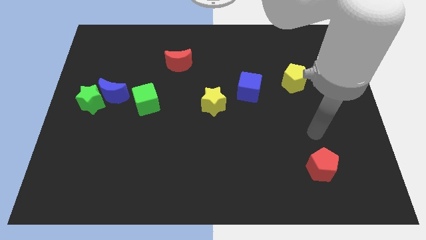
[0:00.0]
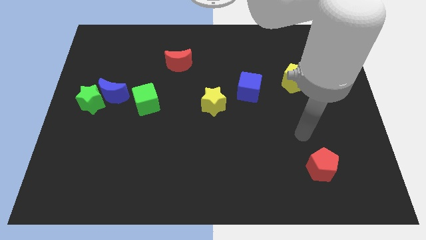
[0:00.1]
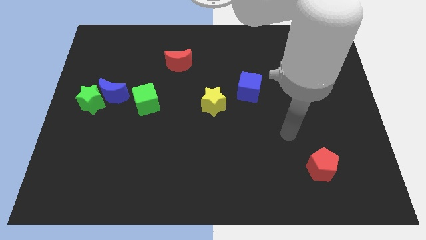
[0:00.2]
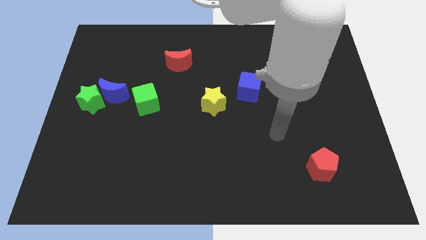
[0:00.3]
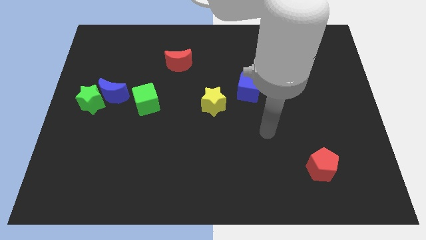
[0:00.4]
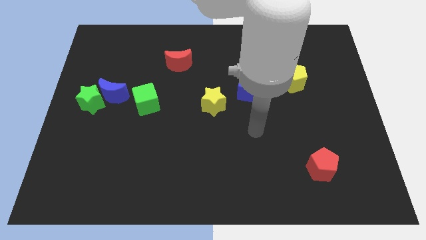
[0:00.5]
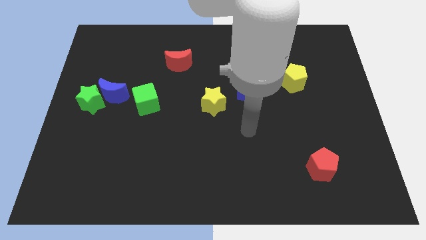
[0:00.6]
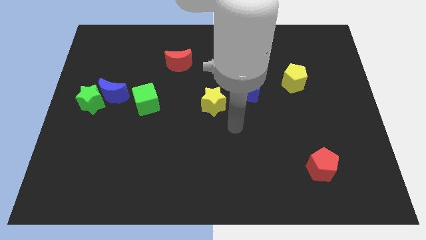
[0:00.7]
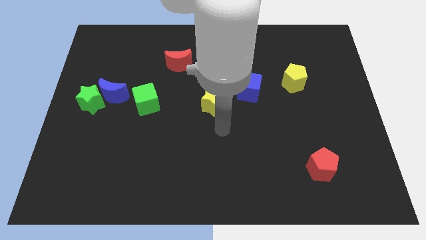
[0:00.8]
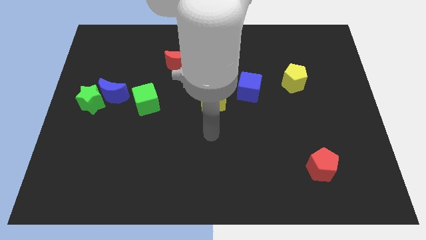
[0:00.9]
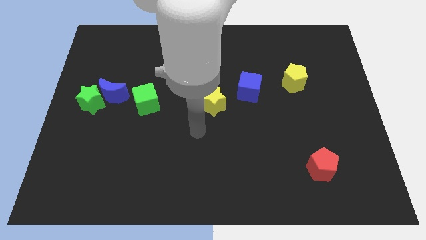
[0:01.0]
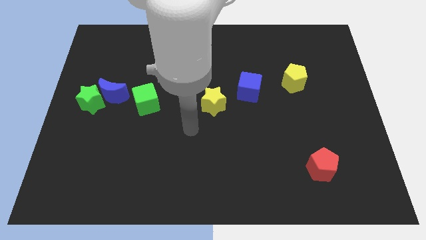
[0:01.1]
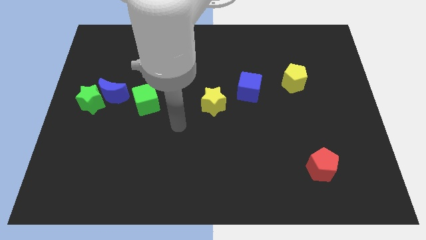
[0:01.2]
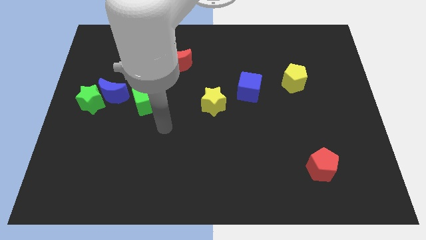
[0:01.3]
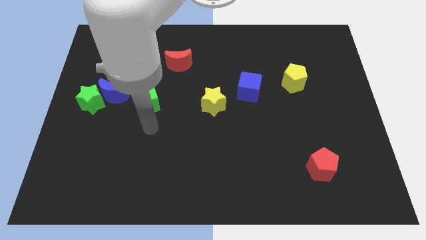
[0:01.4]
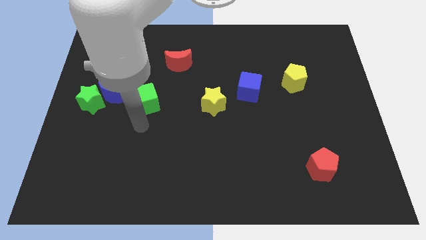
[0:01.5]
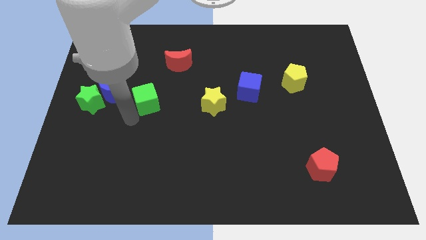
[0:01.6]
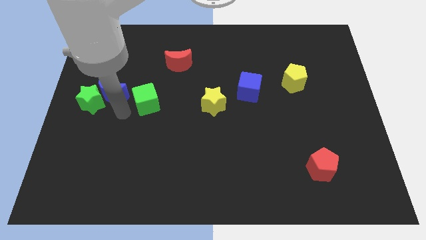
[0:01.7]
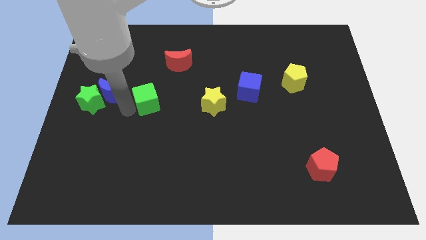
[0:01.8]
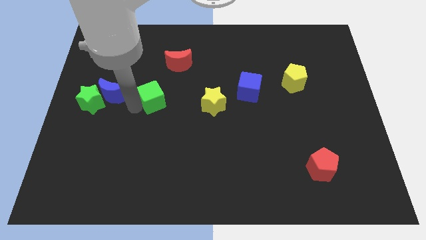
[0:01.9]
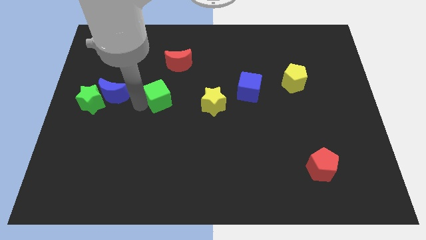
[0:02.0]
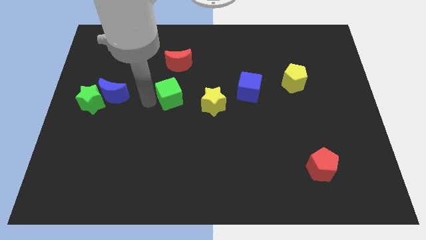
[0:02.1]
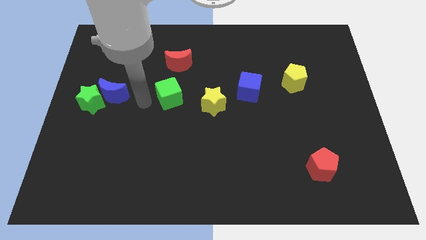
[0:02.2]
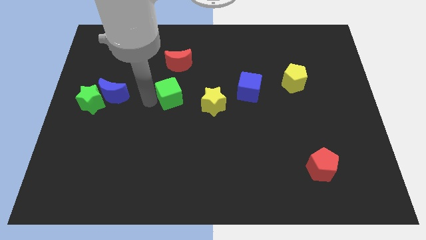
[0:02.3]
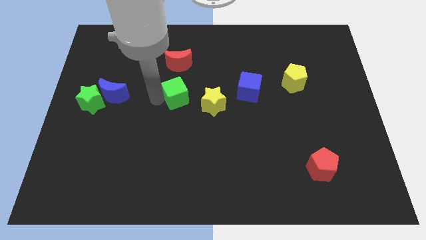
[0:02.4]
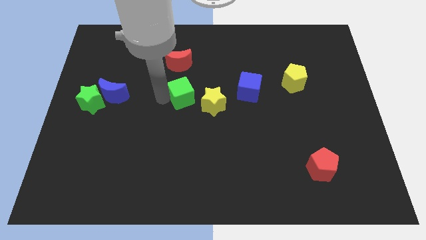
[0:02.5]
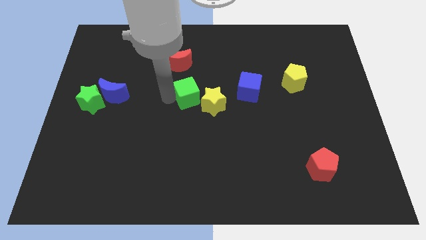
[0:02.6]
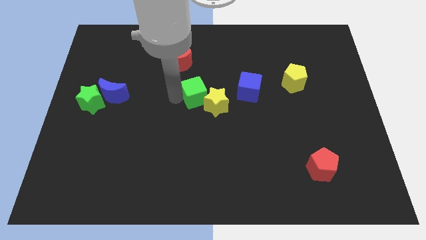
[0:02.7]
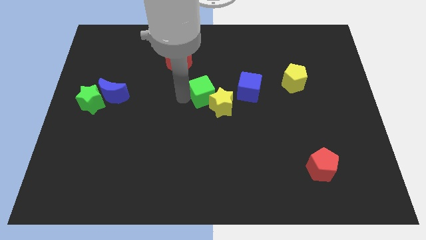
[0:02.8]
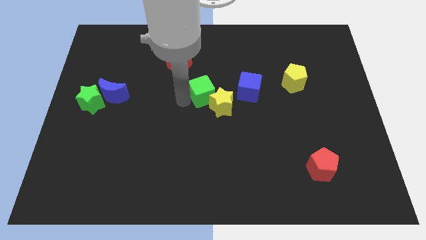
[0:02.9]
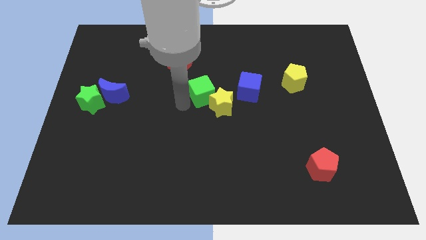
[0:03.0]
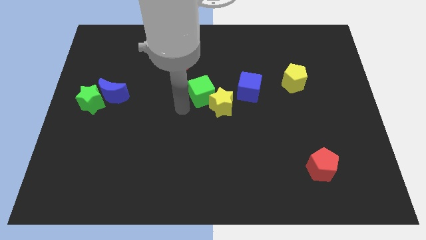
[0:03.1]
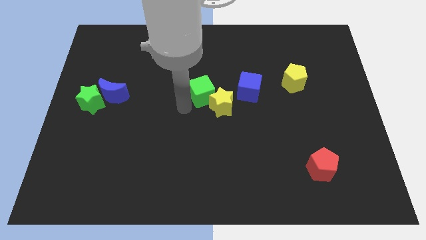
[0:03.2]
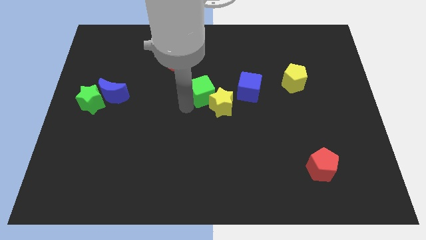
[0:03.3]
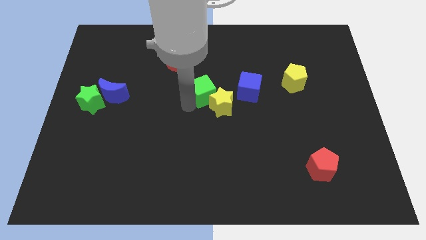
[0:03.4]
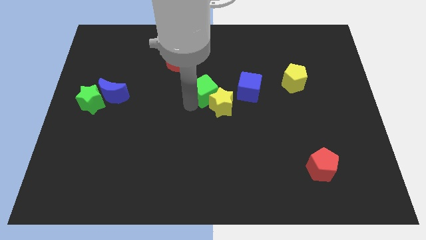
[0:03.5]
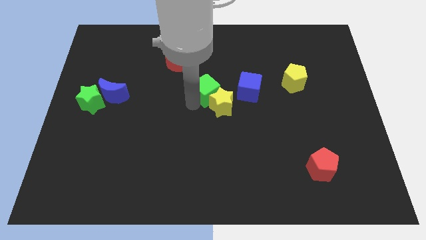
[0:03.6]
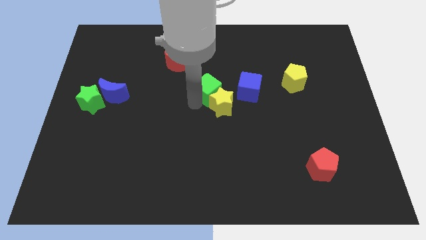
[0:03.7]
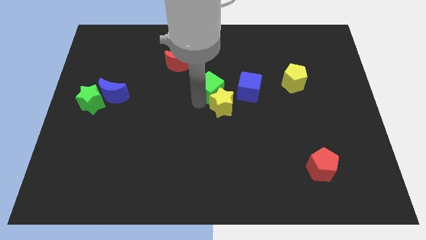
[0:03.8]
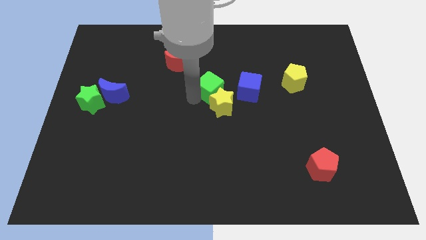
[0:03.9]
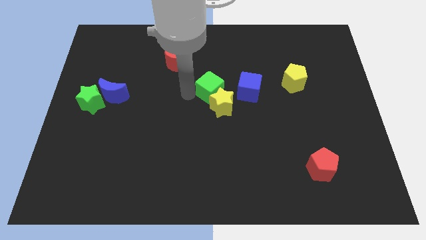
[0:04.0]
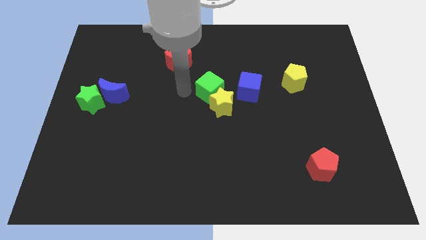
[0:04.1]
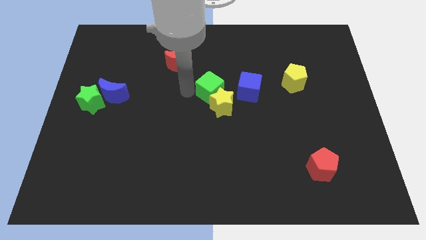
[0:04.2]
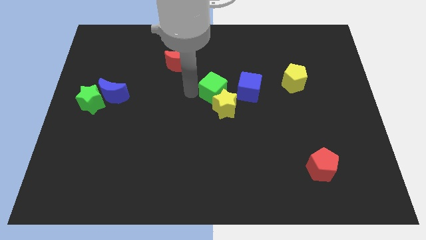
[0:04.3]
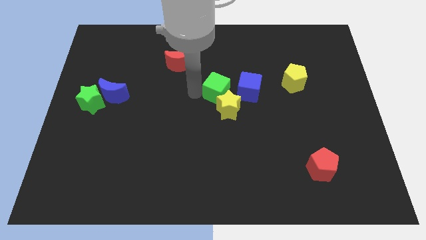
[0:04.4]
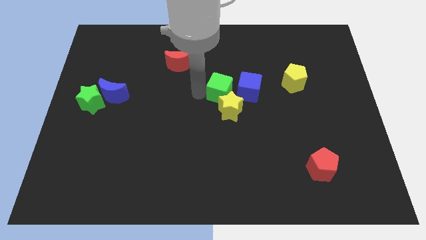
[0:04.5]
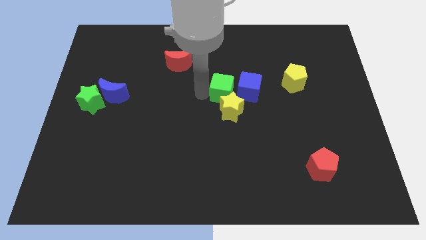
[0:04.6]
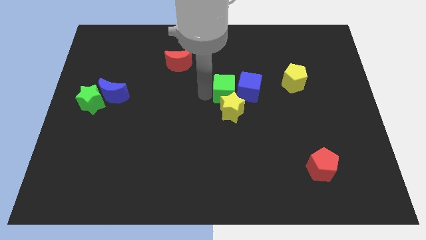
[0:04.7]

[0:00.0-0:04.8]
slide the green cube next to the blue cube

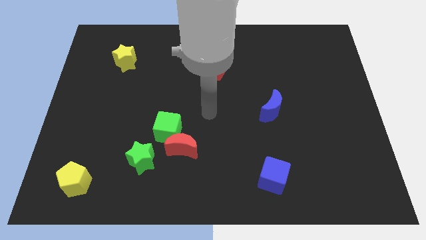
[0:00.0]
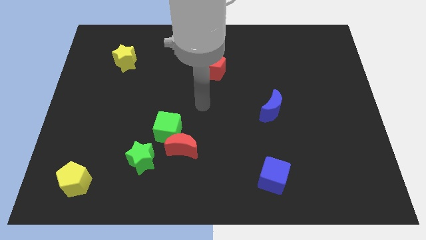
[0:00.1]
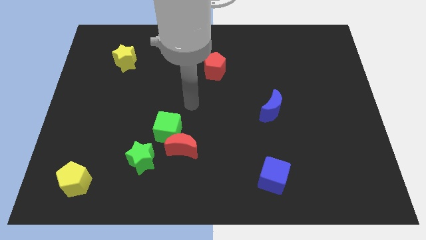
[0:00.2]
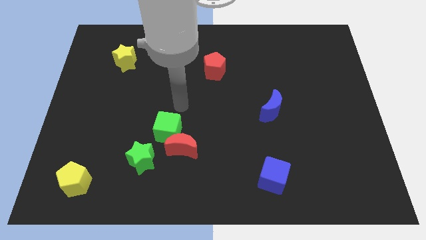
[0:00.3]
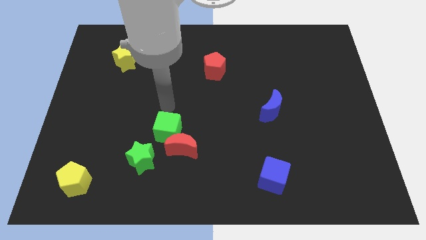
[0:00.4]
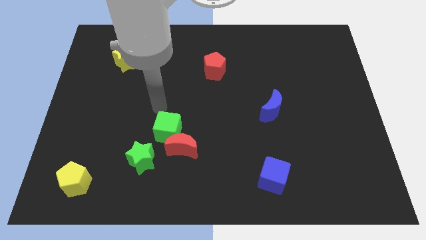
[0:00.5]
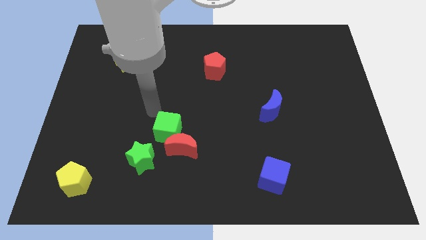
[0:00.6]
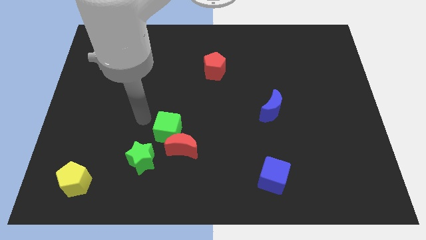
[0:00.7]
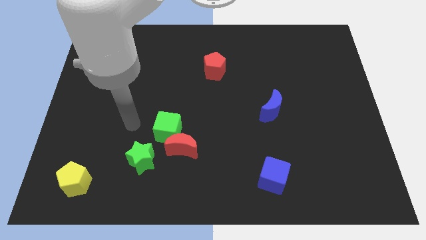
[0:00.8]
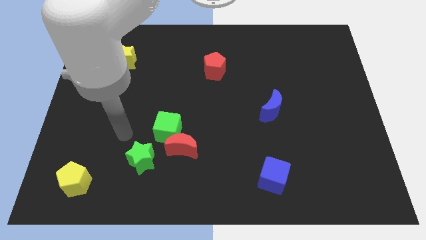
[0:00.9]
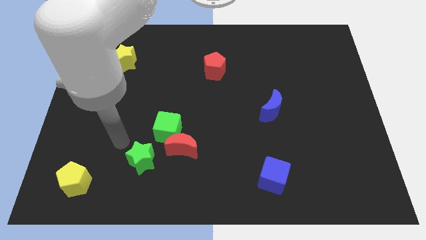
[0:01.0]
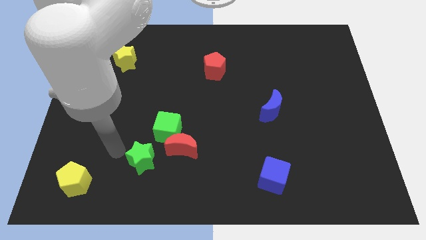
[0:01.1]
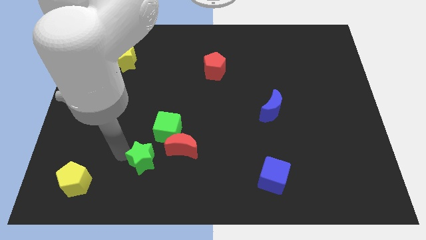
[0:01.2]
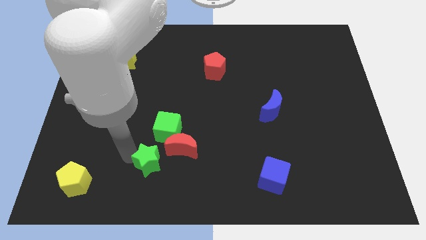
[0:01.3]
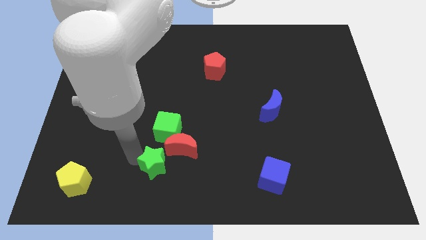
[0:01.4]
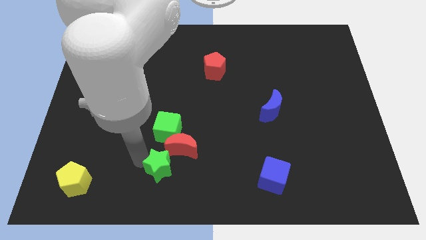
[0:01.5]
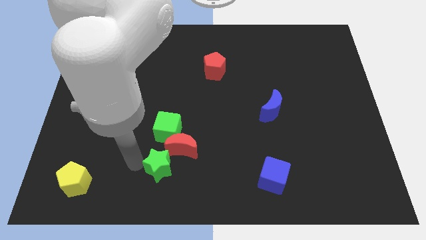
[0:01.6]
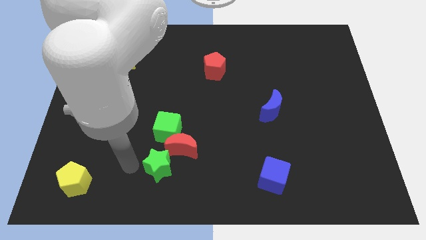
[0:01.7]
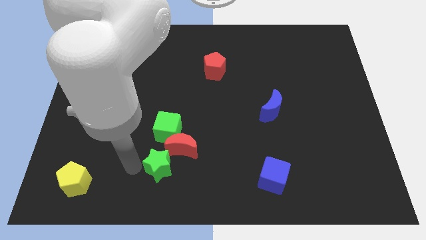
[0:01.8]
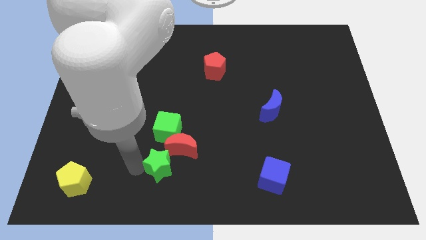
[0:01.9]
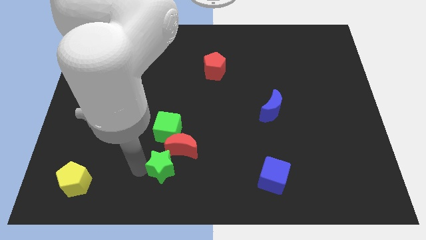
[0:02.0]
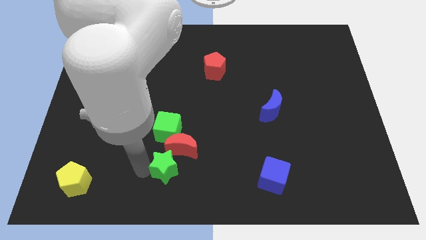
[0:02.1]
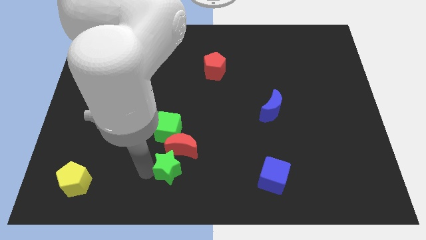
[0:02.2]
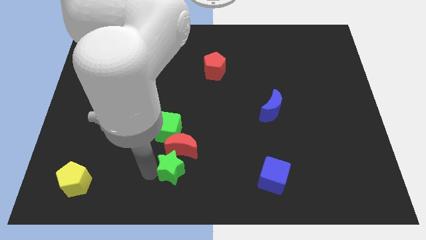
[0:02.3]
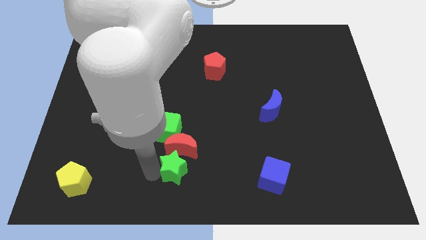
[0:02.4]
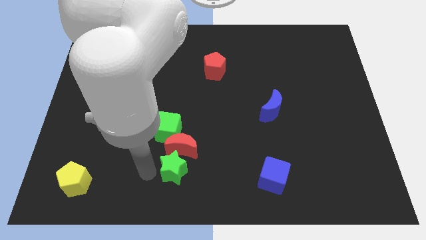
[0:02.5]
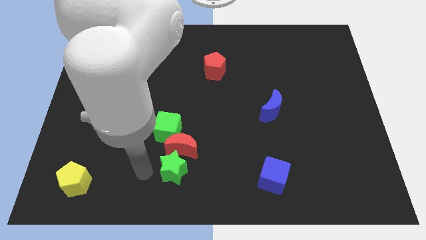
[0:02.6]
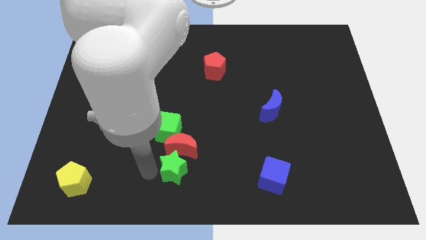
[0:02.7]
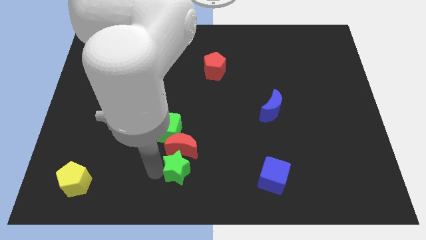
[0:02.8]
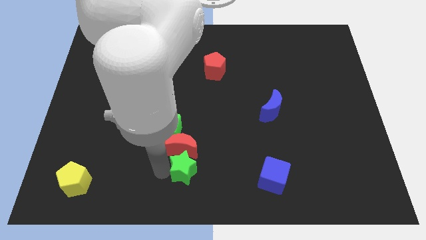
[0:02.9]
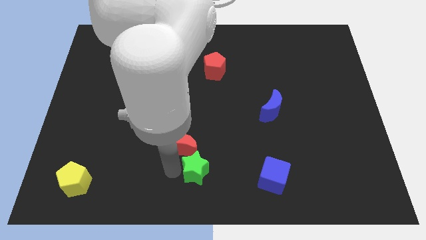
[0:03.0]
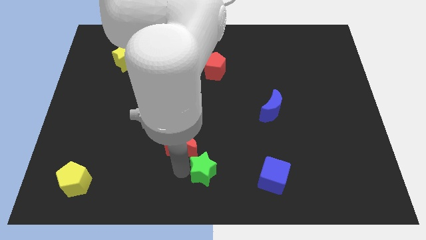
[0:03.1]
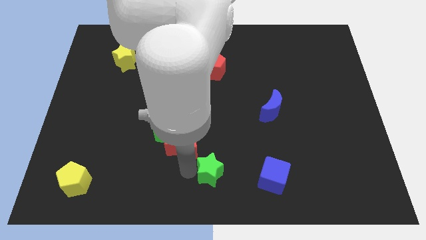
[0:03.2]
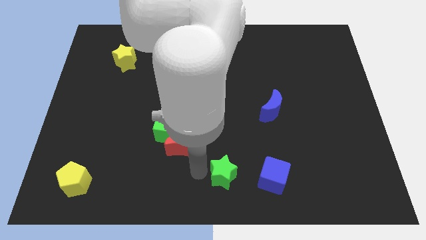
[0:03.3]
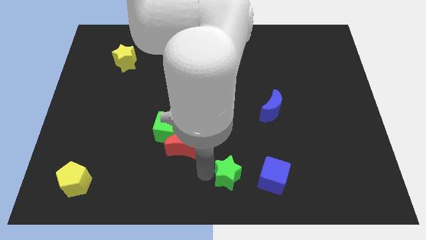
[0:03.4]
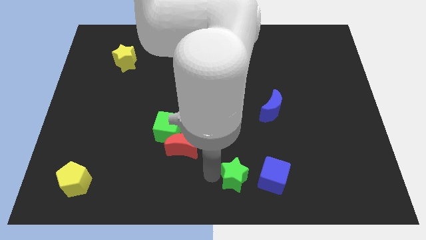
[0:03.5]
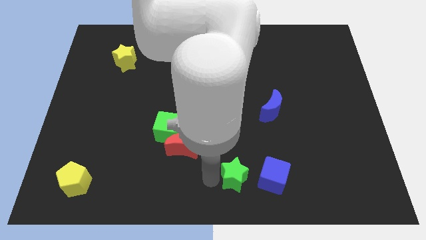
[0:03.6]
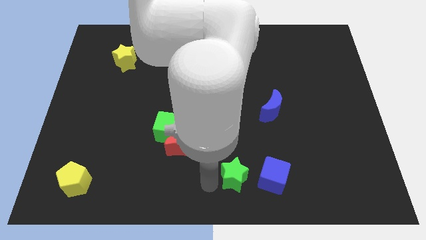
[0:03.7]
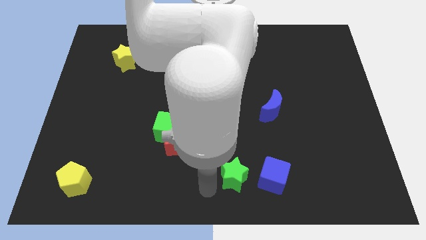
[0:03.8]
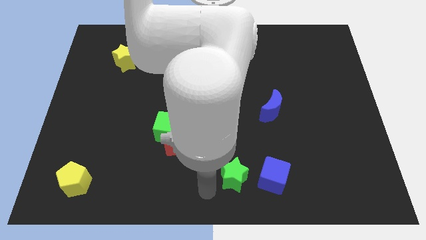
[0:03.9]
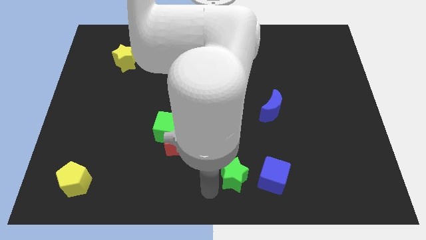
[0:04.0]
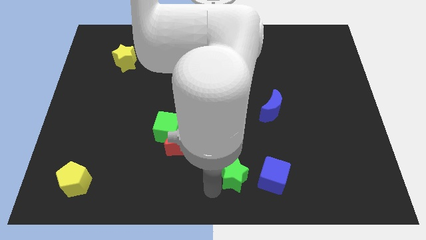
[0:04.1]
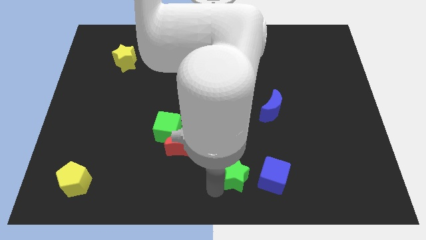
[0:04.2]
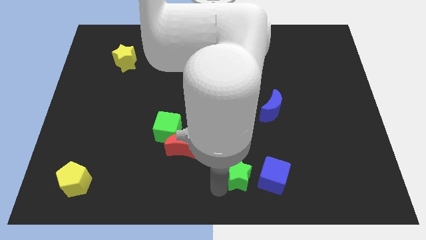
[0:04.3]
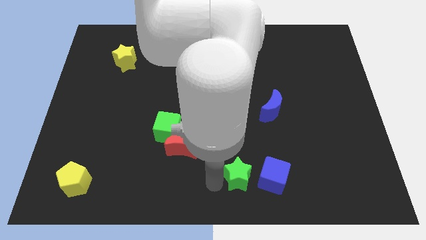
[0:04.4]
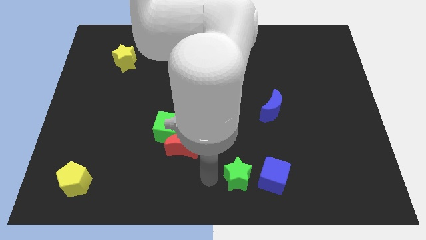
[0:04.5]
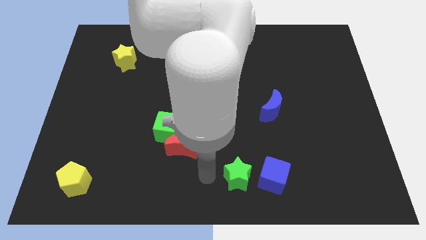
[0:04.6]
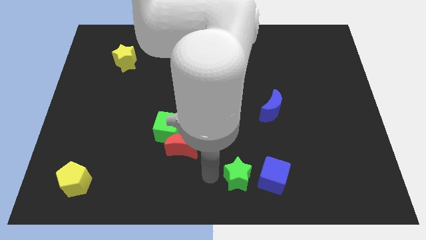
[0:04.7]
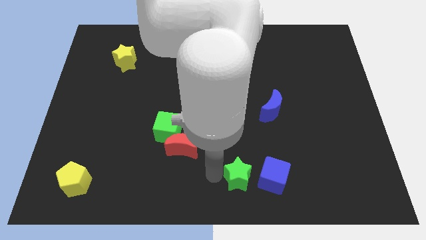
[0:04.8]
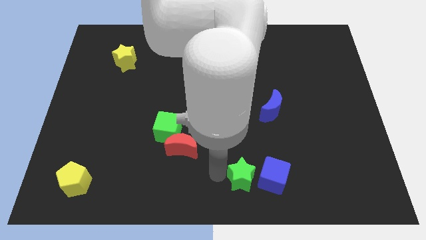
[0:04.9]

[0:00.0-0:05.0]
push the green star to the blue cube
